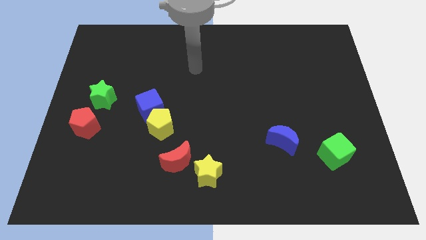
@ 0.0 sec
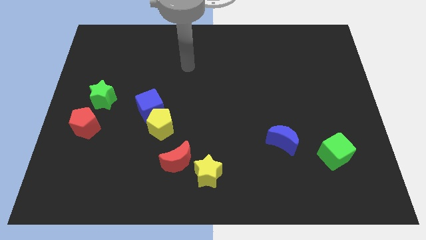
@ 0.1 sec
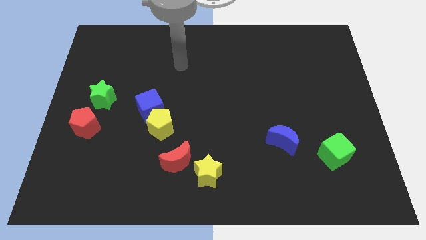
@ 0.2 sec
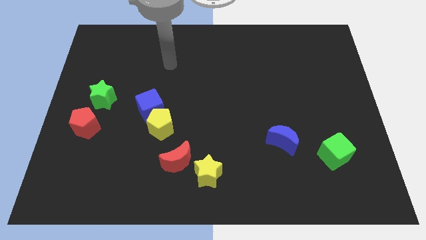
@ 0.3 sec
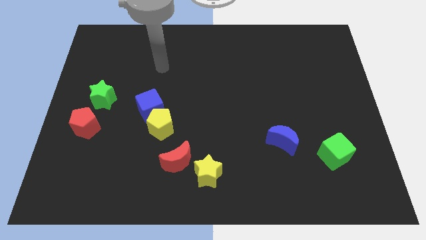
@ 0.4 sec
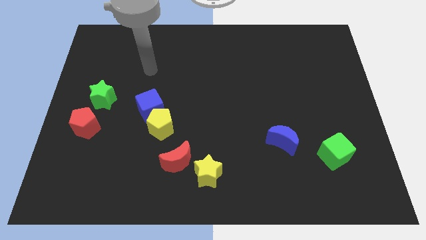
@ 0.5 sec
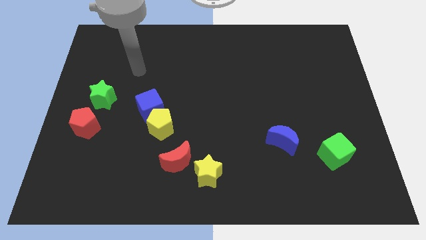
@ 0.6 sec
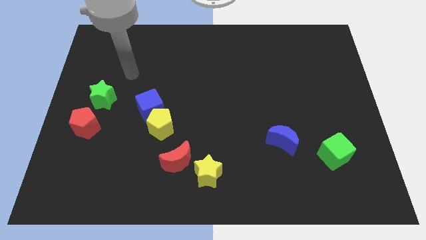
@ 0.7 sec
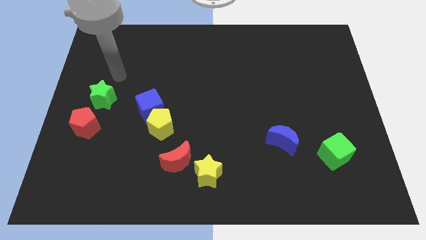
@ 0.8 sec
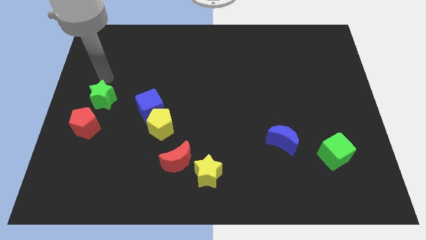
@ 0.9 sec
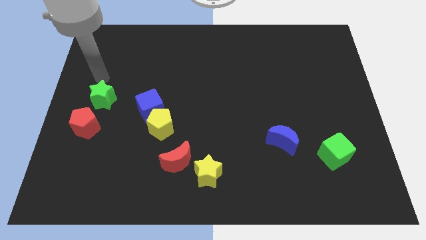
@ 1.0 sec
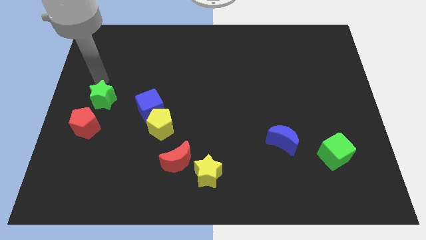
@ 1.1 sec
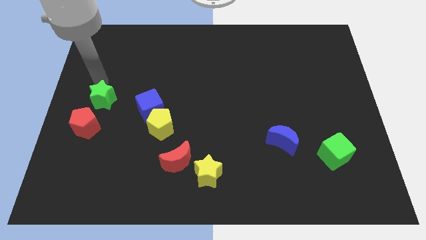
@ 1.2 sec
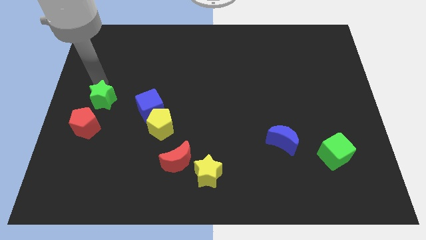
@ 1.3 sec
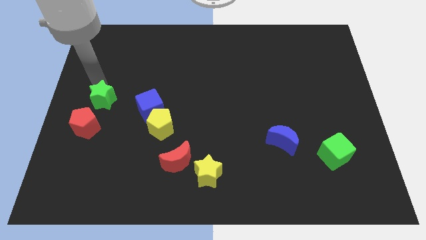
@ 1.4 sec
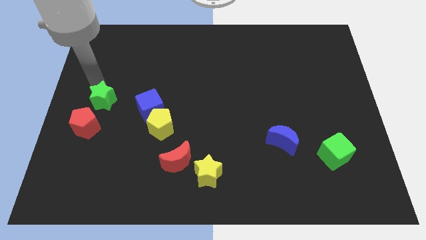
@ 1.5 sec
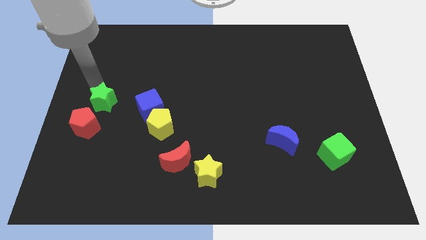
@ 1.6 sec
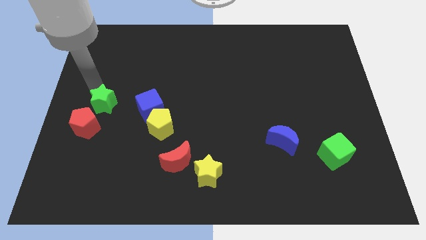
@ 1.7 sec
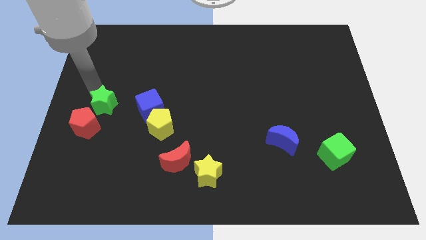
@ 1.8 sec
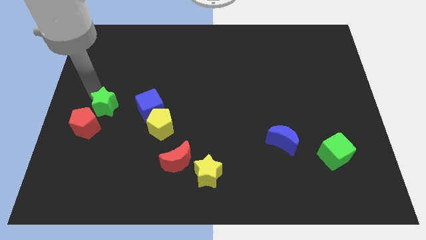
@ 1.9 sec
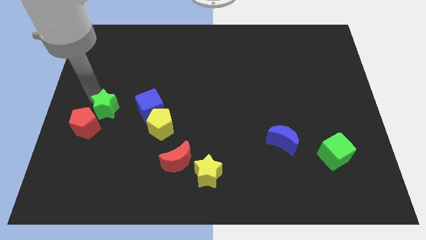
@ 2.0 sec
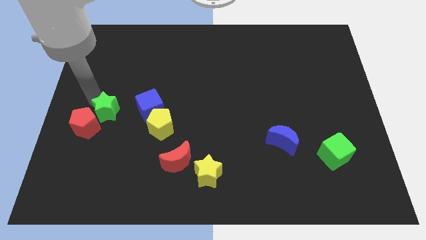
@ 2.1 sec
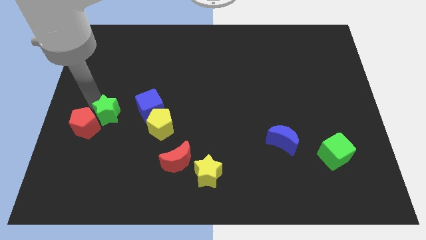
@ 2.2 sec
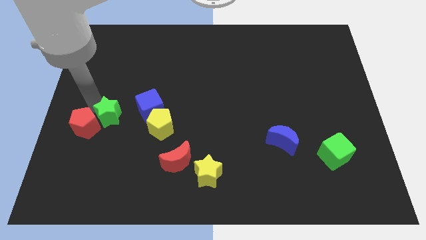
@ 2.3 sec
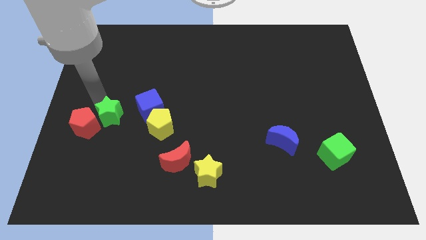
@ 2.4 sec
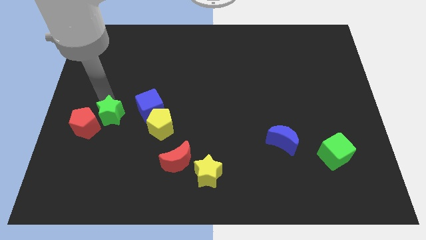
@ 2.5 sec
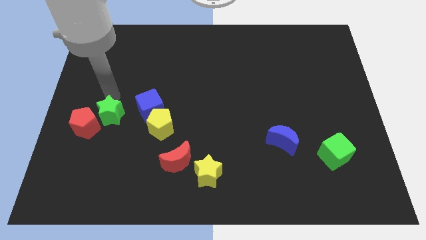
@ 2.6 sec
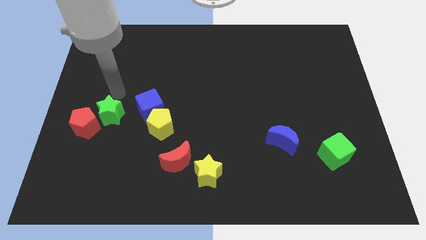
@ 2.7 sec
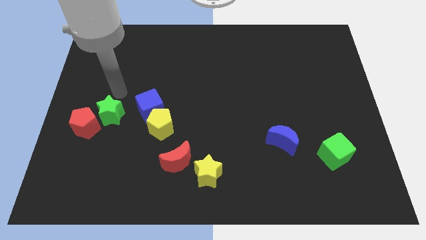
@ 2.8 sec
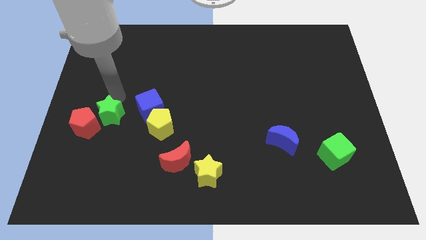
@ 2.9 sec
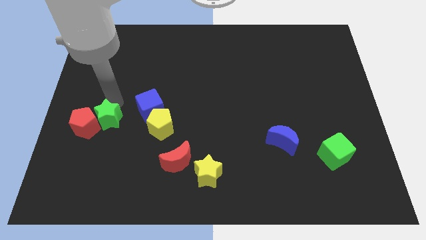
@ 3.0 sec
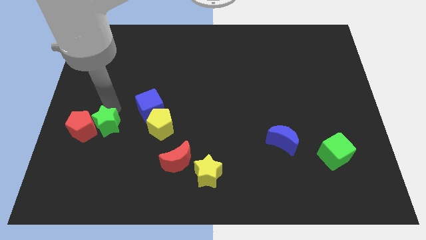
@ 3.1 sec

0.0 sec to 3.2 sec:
push the green star down a bit

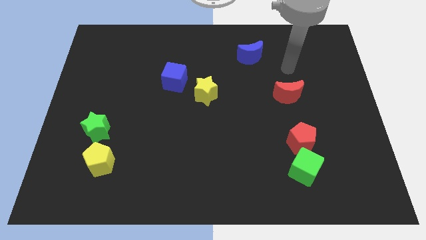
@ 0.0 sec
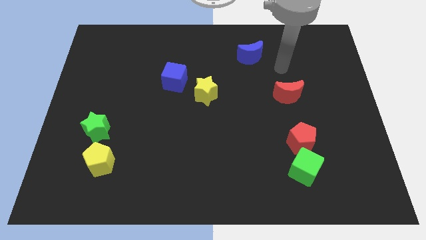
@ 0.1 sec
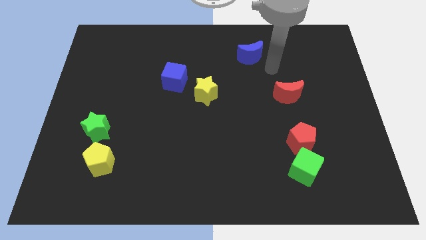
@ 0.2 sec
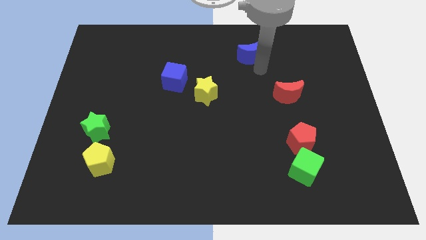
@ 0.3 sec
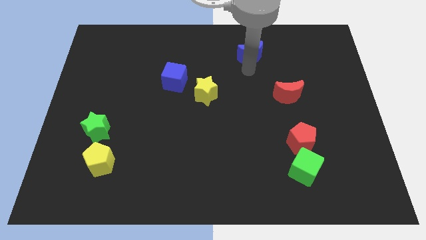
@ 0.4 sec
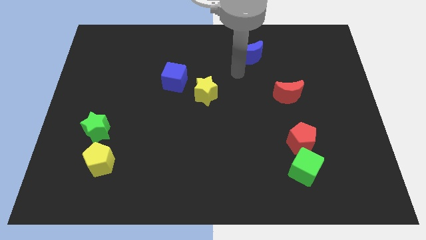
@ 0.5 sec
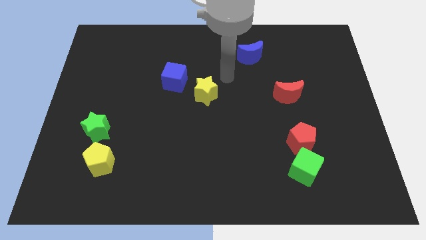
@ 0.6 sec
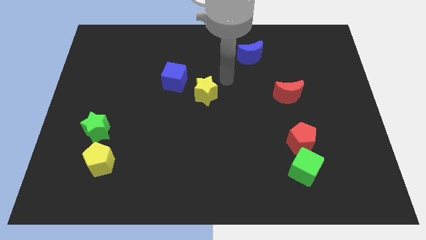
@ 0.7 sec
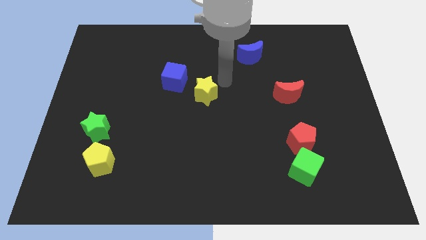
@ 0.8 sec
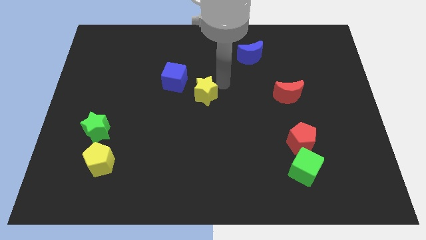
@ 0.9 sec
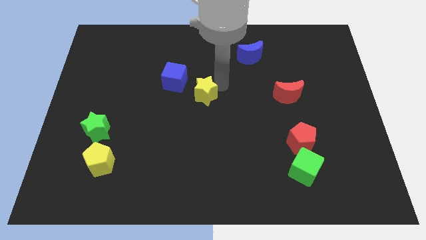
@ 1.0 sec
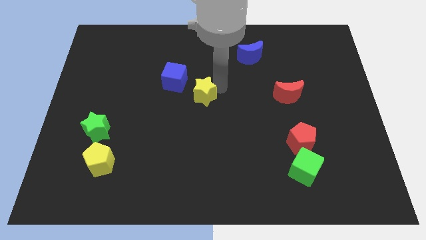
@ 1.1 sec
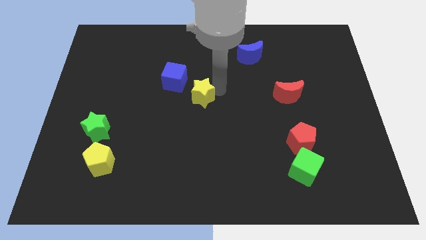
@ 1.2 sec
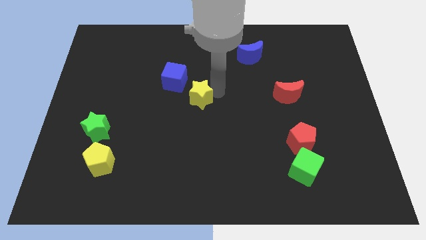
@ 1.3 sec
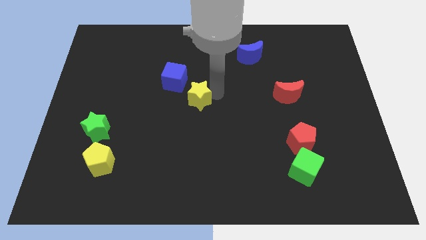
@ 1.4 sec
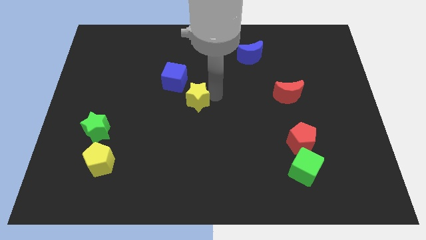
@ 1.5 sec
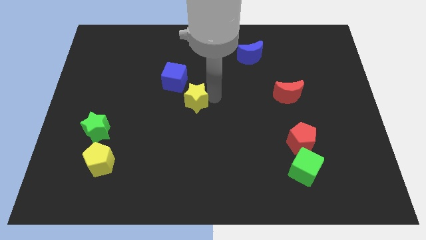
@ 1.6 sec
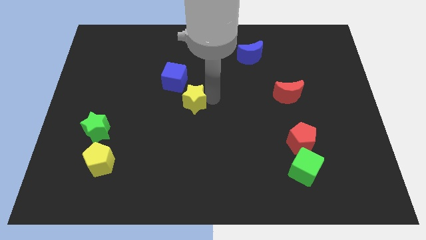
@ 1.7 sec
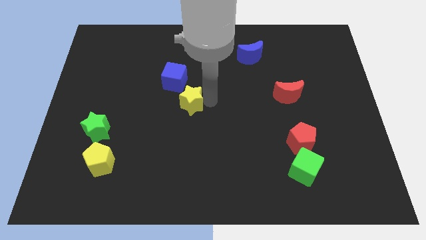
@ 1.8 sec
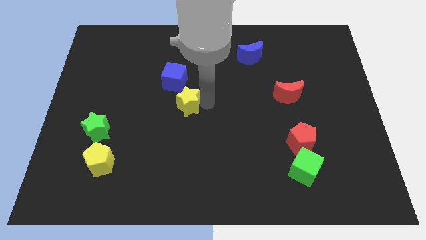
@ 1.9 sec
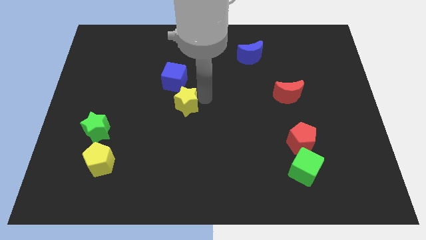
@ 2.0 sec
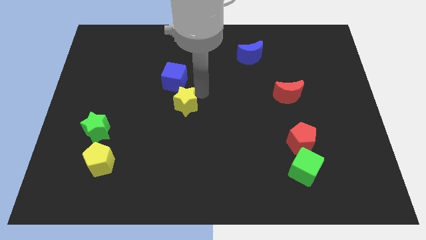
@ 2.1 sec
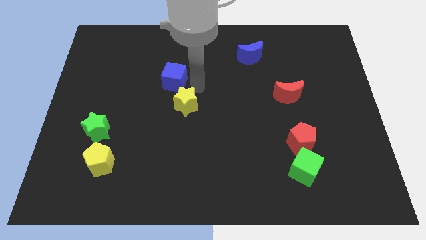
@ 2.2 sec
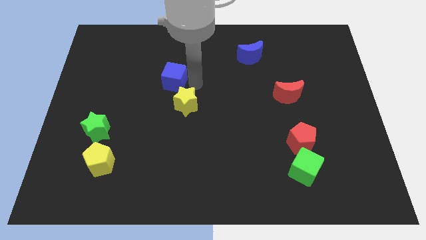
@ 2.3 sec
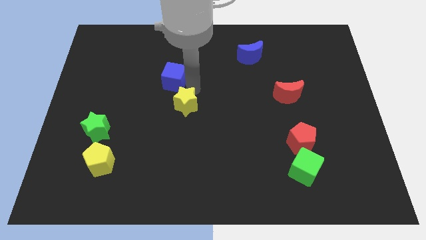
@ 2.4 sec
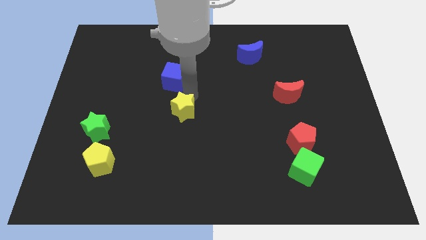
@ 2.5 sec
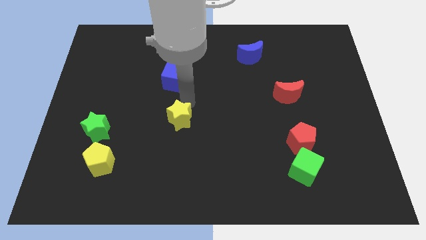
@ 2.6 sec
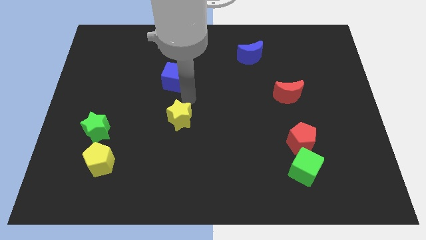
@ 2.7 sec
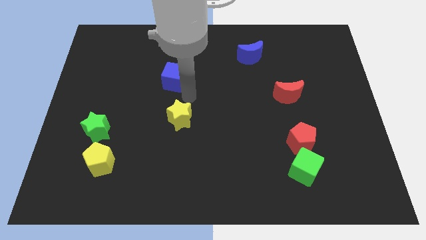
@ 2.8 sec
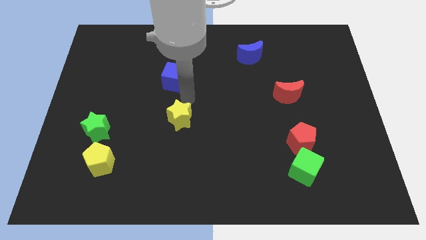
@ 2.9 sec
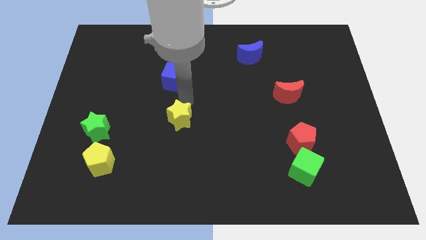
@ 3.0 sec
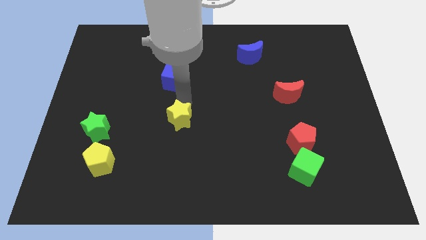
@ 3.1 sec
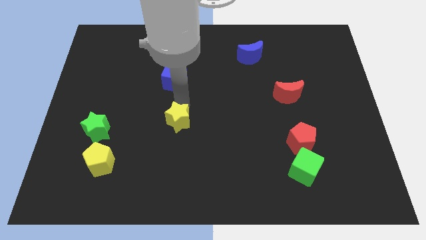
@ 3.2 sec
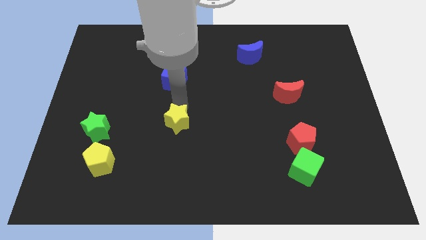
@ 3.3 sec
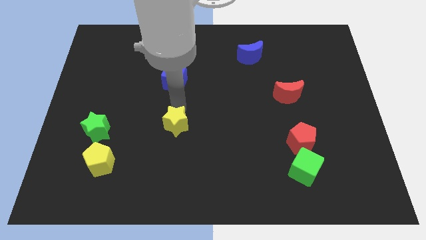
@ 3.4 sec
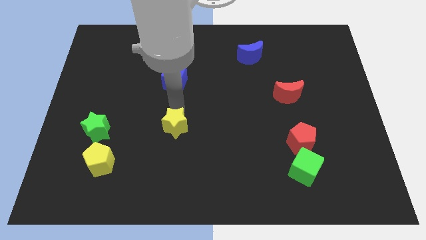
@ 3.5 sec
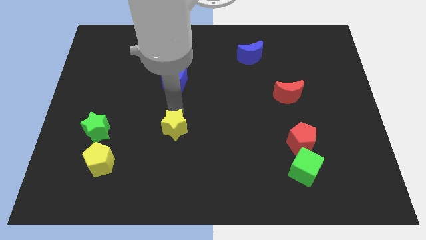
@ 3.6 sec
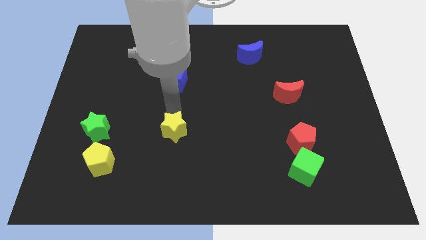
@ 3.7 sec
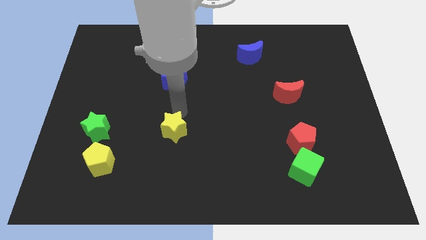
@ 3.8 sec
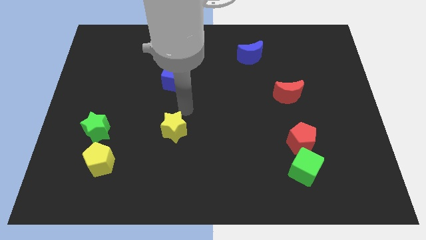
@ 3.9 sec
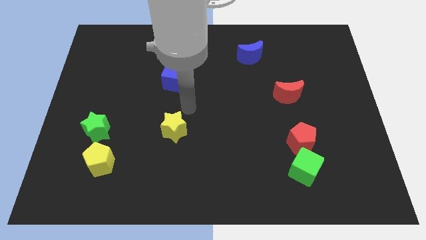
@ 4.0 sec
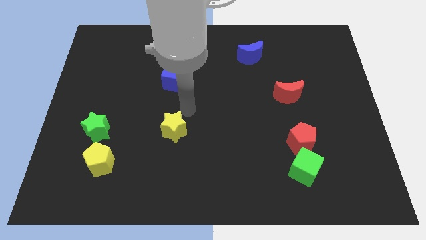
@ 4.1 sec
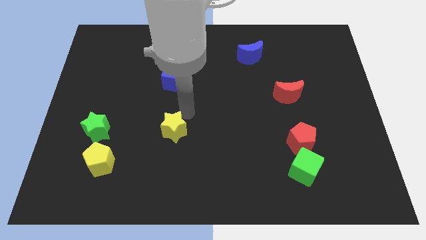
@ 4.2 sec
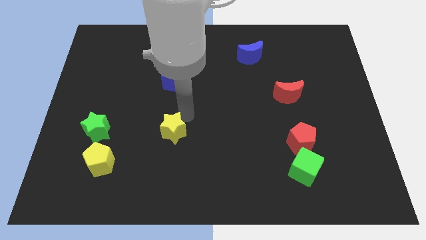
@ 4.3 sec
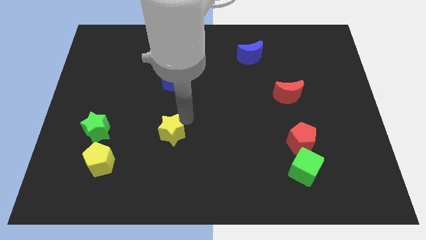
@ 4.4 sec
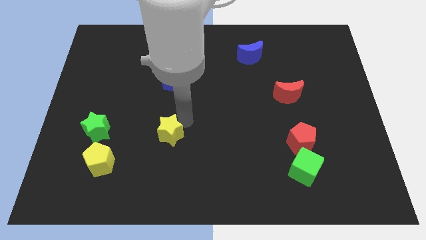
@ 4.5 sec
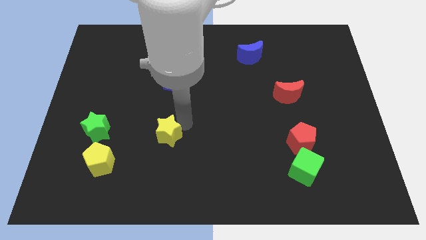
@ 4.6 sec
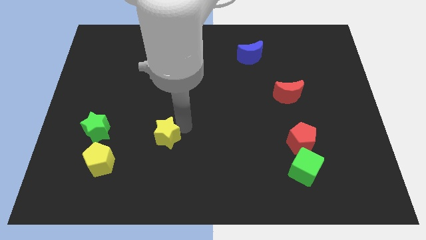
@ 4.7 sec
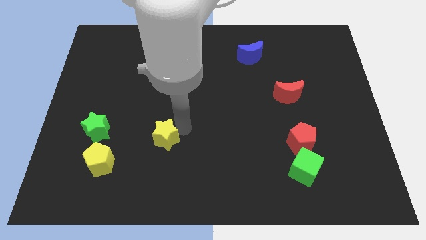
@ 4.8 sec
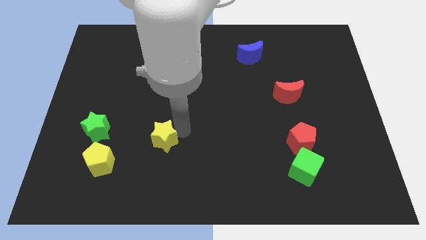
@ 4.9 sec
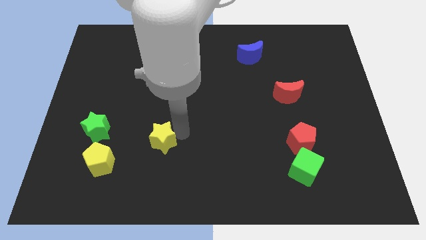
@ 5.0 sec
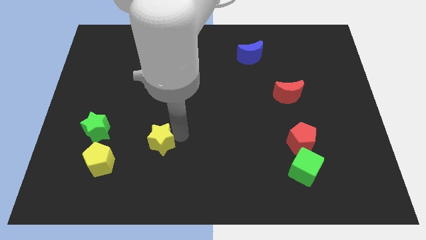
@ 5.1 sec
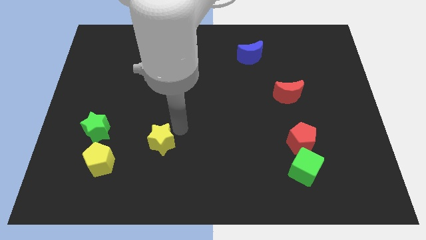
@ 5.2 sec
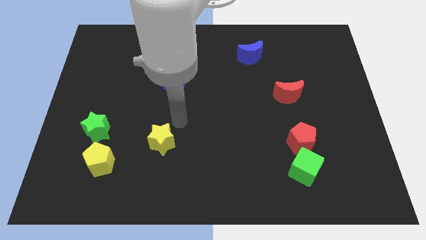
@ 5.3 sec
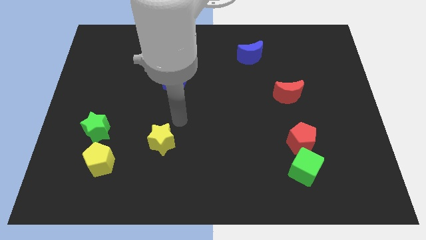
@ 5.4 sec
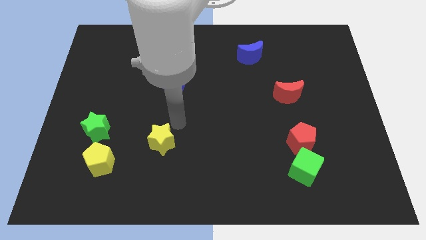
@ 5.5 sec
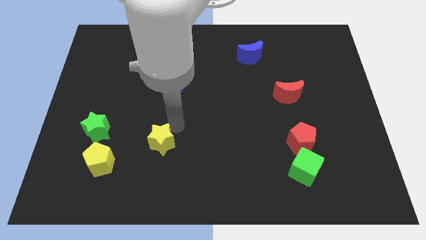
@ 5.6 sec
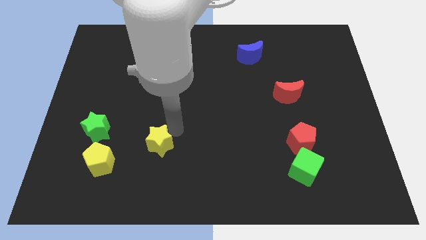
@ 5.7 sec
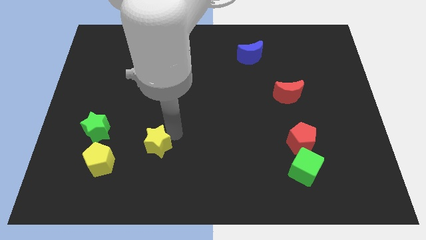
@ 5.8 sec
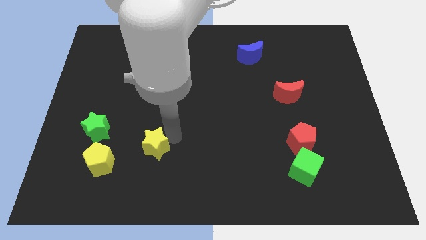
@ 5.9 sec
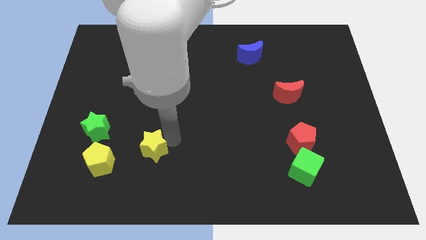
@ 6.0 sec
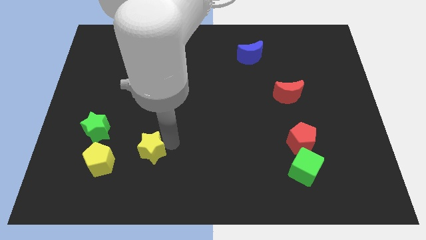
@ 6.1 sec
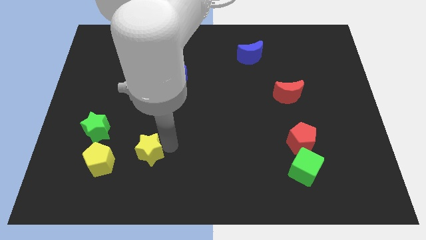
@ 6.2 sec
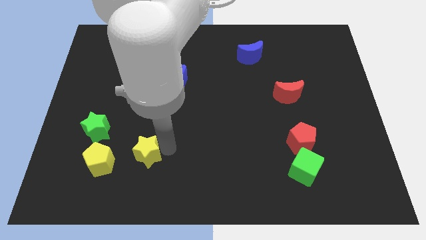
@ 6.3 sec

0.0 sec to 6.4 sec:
push the yellow star downwards and to the left
